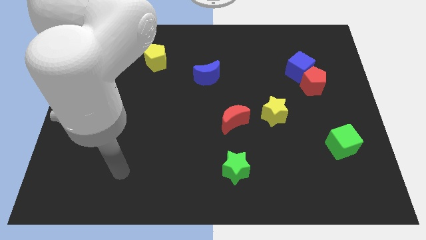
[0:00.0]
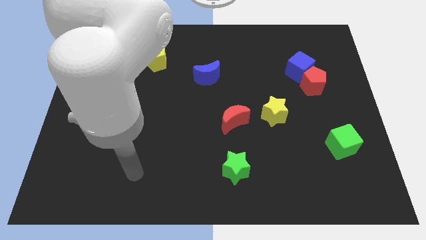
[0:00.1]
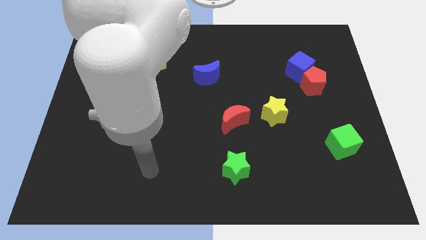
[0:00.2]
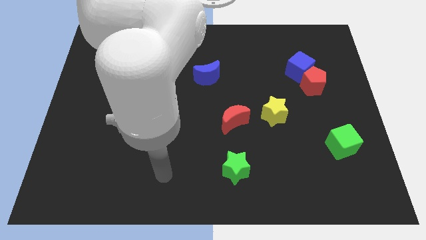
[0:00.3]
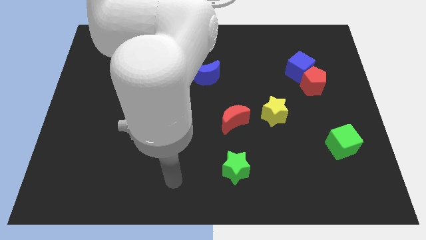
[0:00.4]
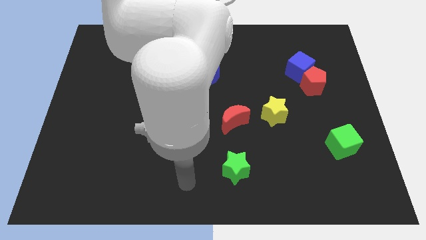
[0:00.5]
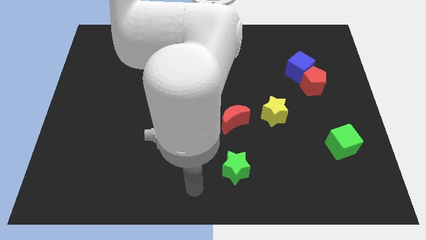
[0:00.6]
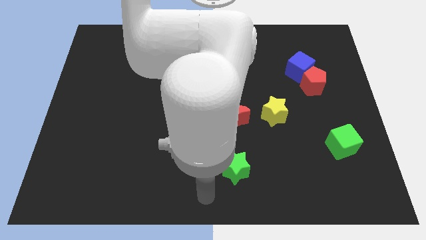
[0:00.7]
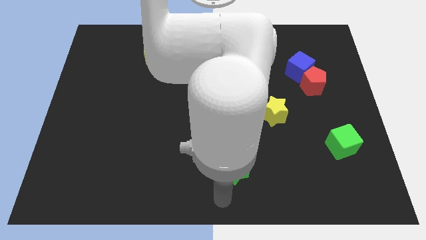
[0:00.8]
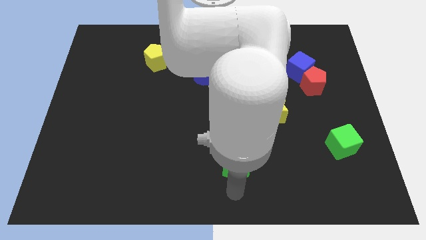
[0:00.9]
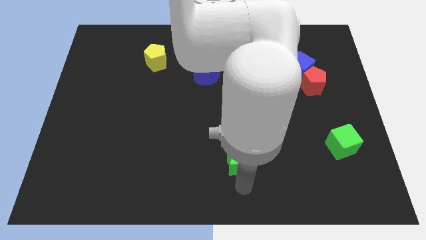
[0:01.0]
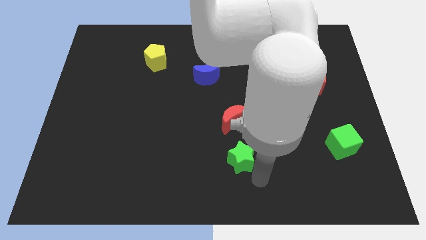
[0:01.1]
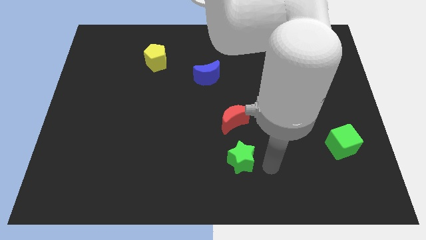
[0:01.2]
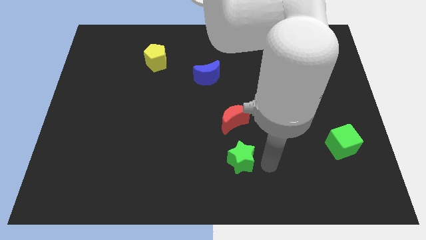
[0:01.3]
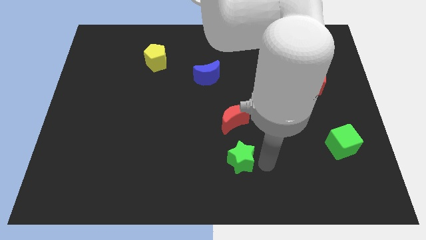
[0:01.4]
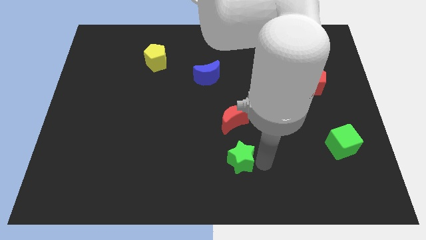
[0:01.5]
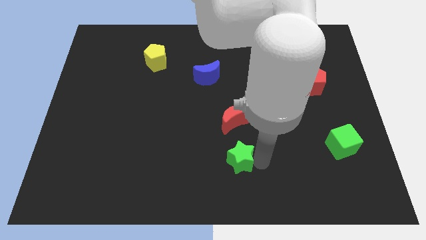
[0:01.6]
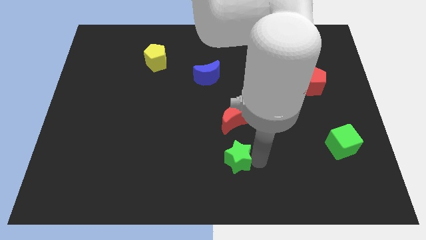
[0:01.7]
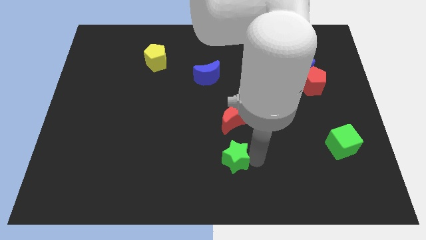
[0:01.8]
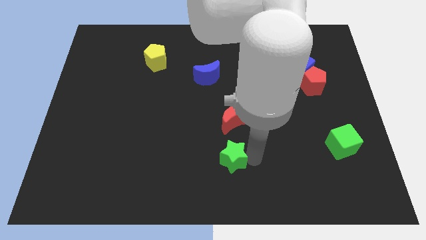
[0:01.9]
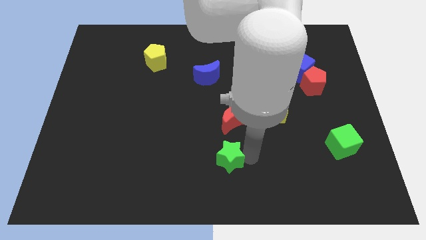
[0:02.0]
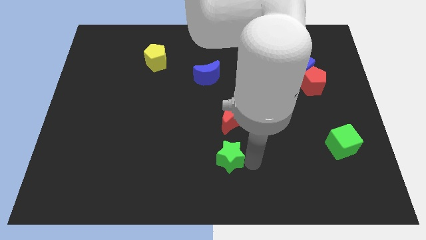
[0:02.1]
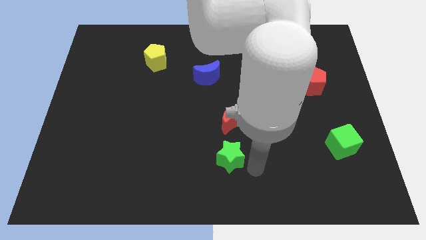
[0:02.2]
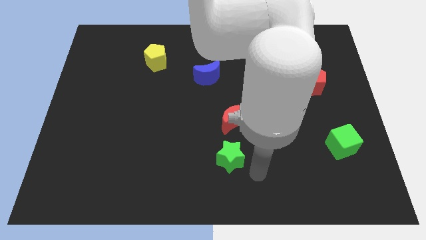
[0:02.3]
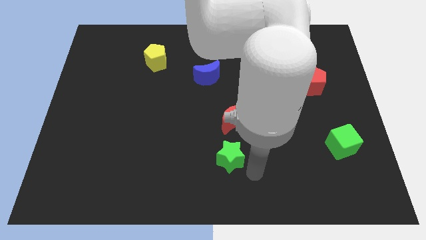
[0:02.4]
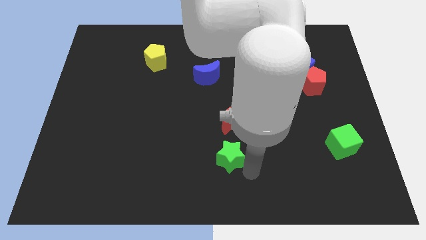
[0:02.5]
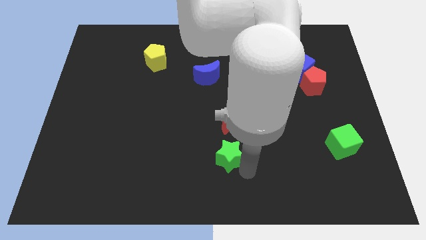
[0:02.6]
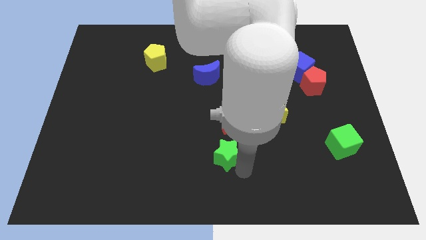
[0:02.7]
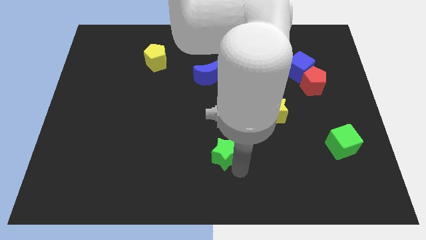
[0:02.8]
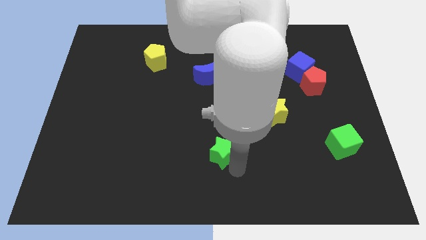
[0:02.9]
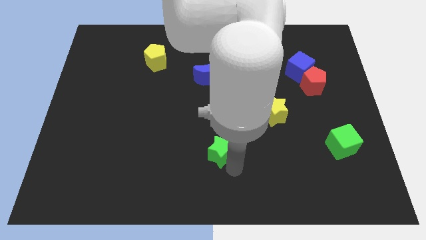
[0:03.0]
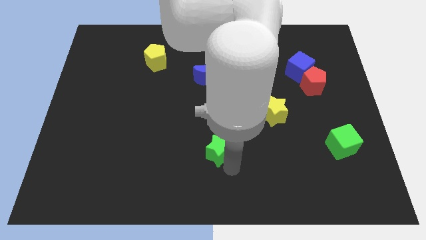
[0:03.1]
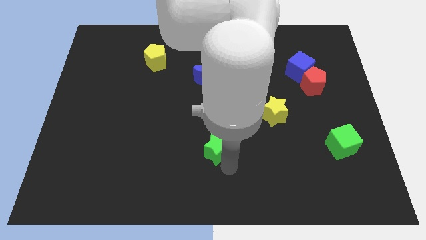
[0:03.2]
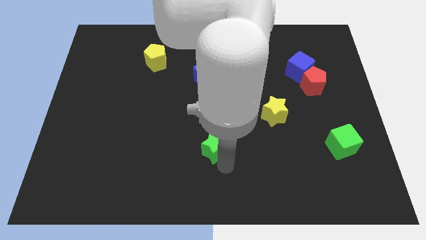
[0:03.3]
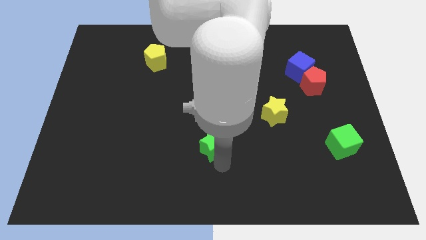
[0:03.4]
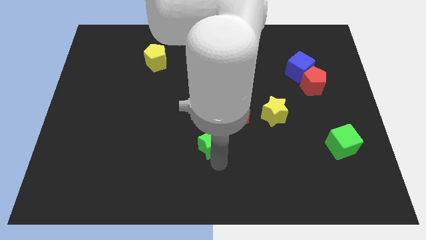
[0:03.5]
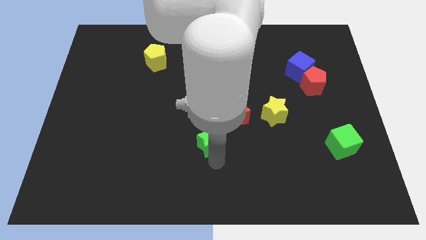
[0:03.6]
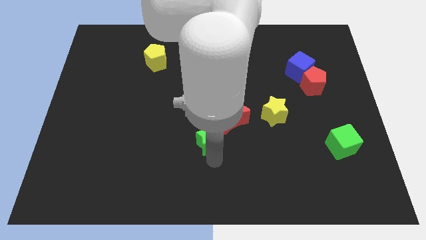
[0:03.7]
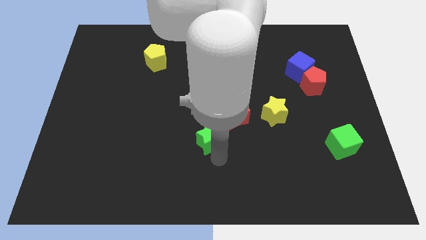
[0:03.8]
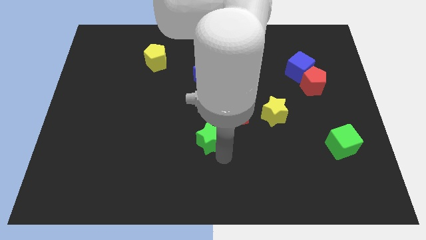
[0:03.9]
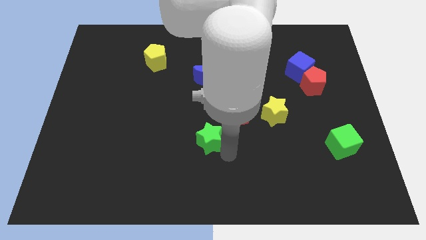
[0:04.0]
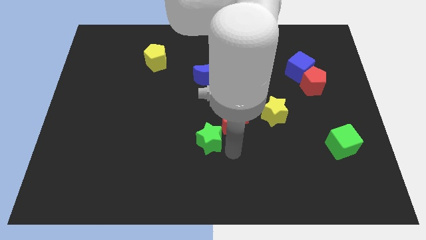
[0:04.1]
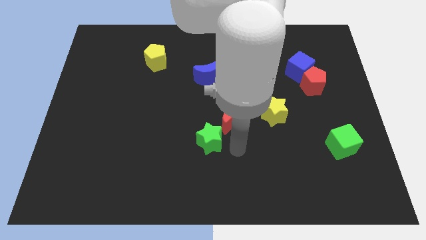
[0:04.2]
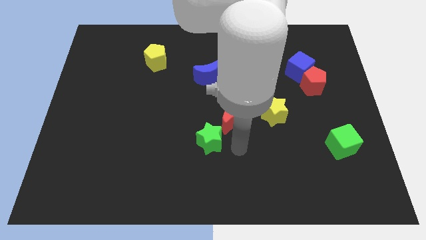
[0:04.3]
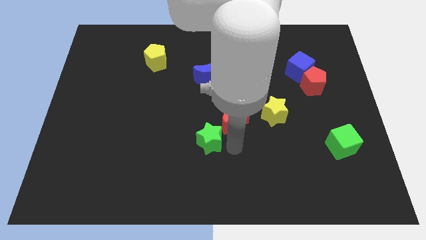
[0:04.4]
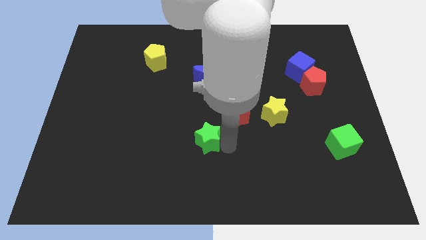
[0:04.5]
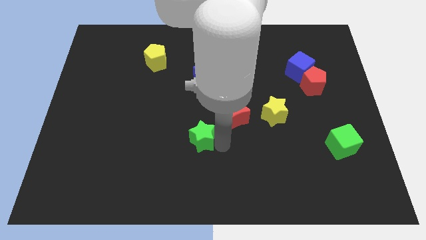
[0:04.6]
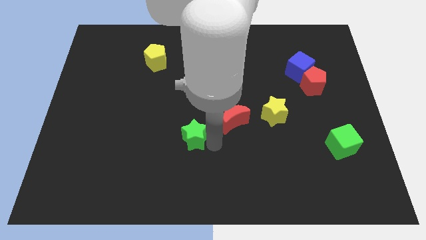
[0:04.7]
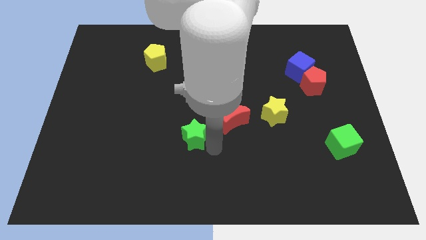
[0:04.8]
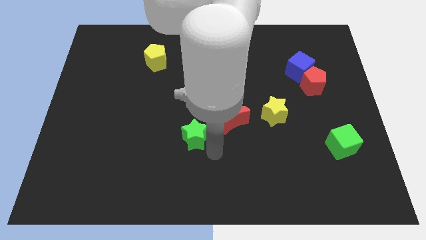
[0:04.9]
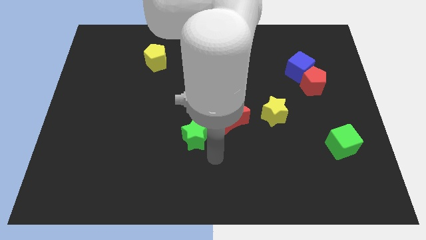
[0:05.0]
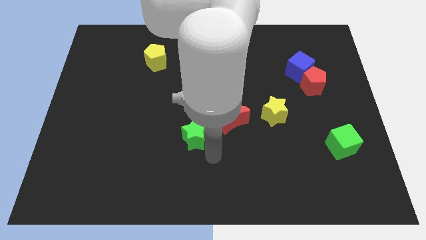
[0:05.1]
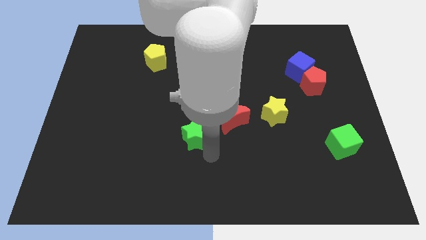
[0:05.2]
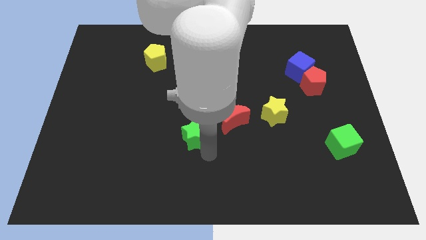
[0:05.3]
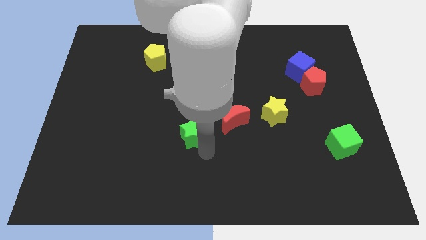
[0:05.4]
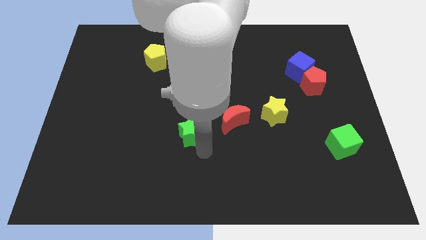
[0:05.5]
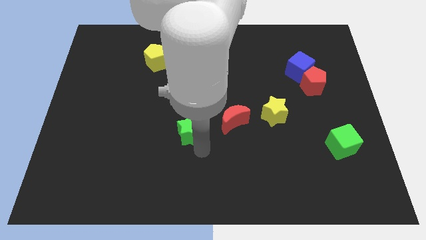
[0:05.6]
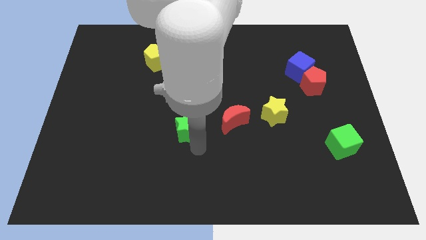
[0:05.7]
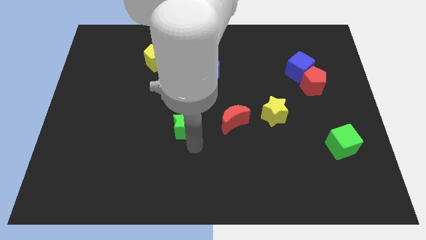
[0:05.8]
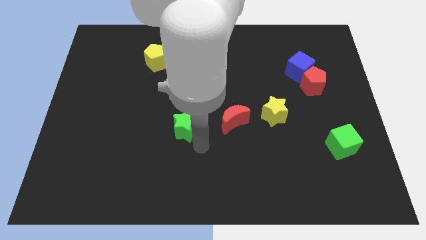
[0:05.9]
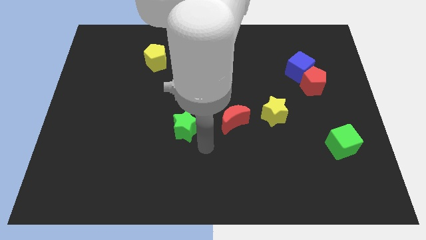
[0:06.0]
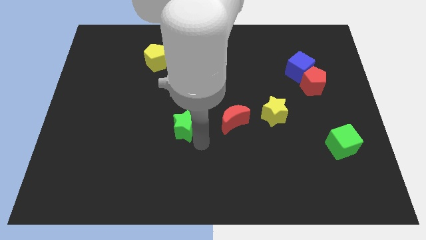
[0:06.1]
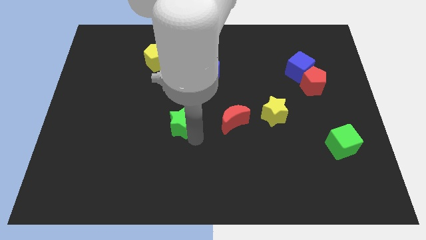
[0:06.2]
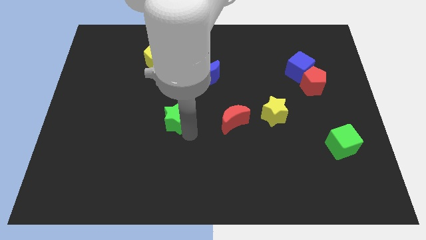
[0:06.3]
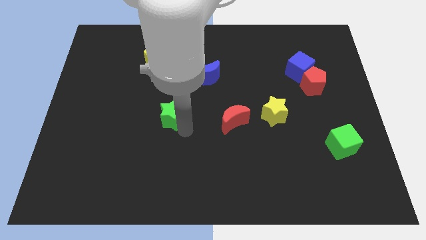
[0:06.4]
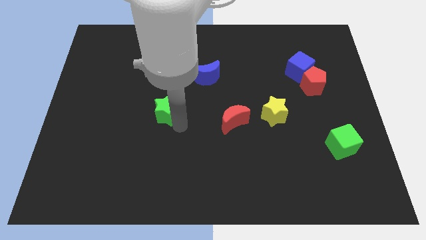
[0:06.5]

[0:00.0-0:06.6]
slide the green star up and then to the left

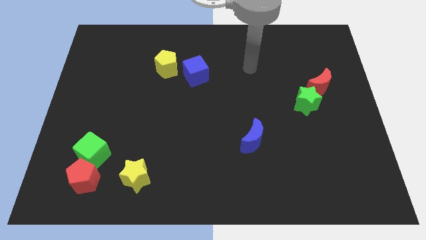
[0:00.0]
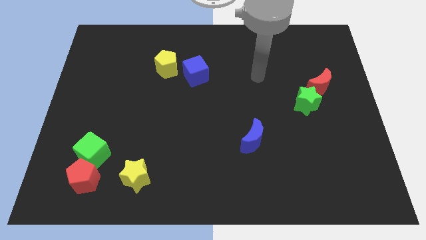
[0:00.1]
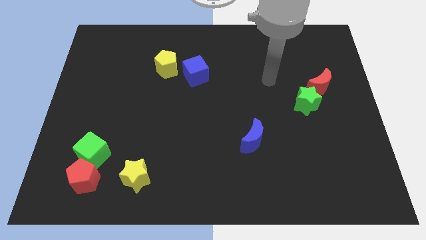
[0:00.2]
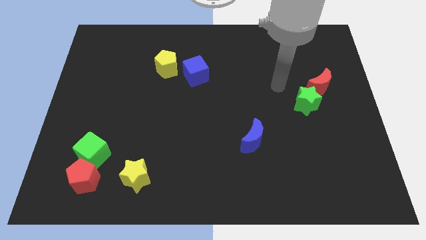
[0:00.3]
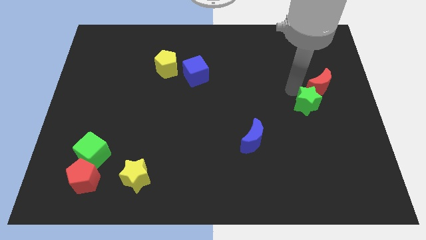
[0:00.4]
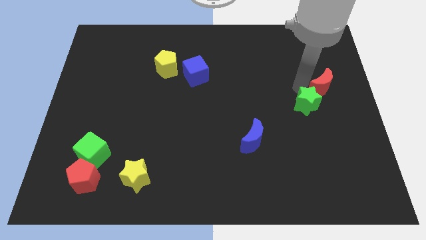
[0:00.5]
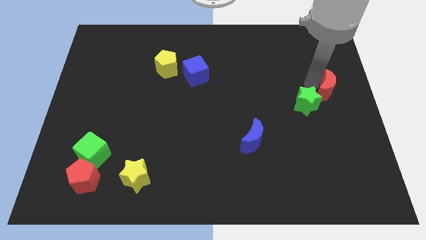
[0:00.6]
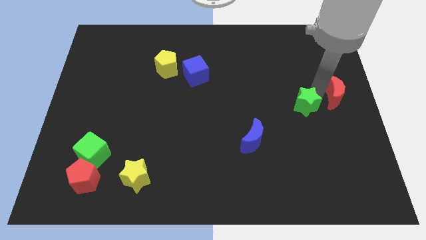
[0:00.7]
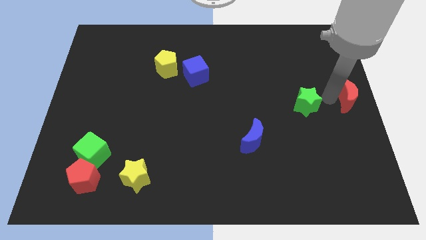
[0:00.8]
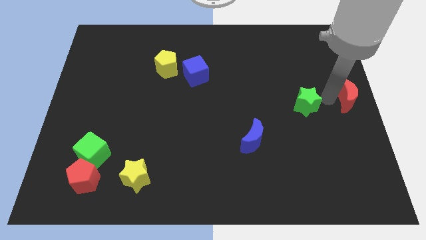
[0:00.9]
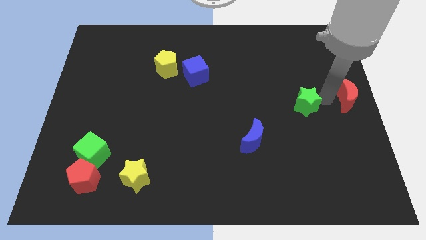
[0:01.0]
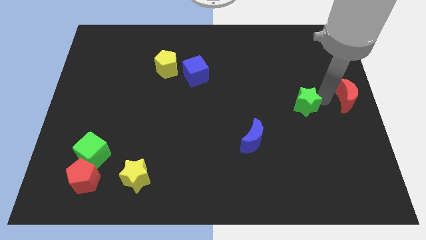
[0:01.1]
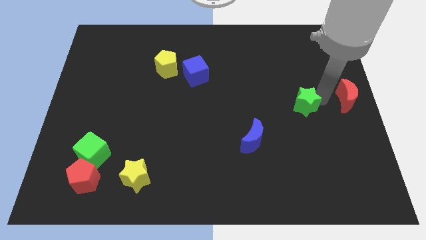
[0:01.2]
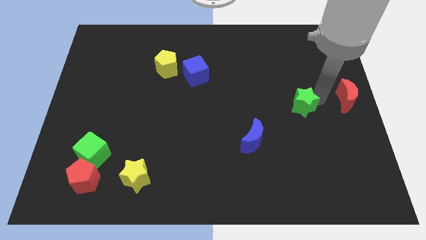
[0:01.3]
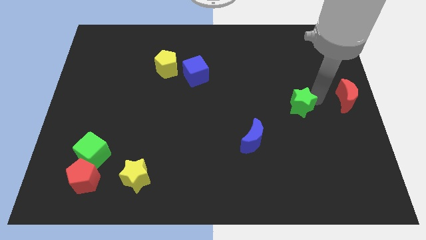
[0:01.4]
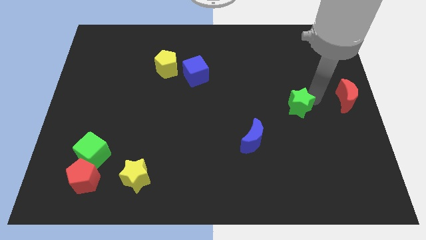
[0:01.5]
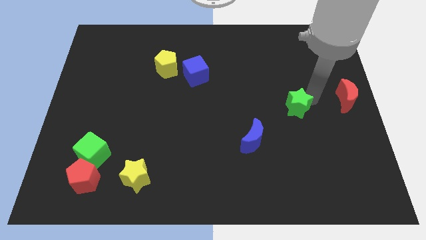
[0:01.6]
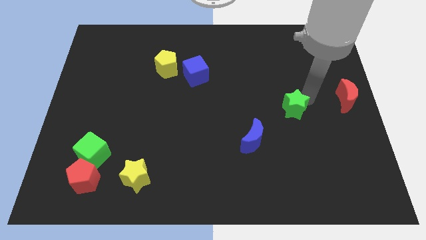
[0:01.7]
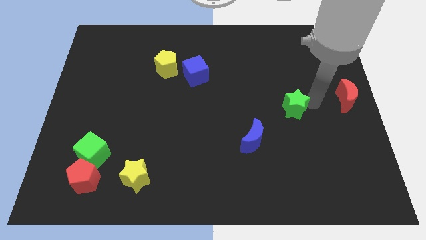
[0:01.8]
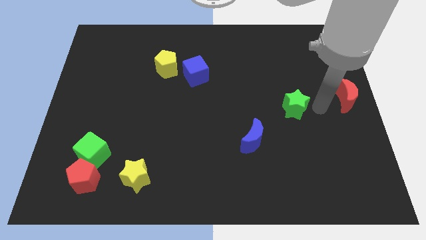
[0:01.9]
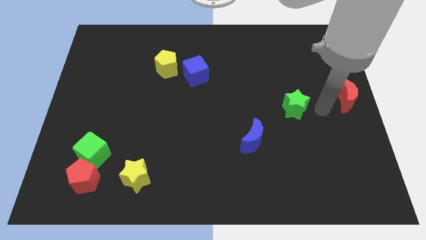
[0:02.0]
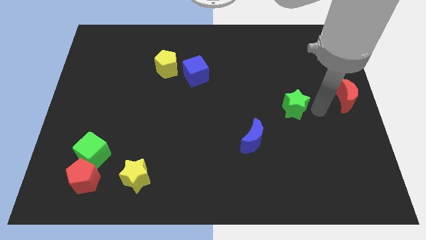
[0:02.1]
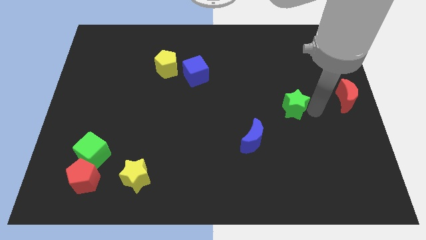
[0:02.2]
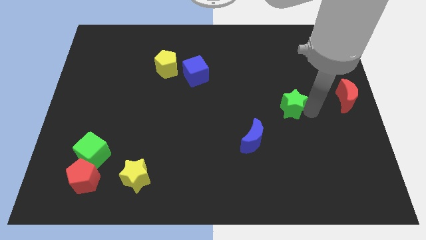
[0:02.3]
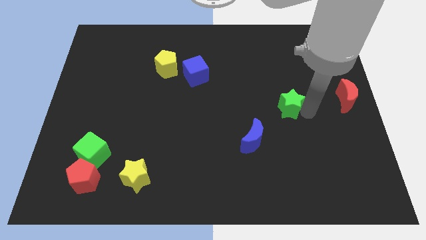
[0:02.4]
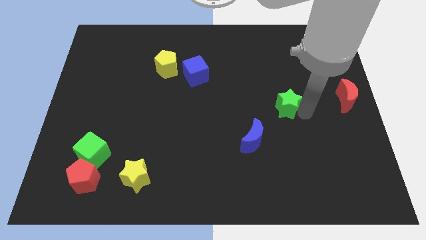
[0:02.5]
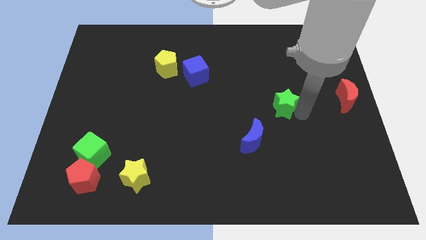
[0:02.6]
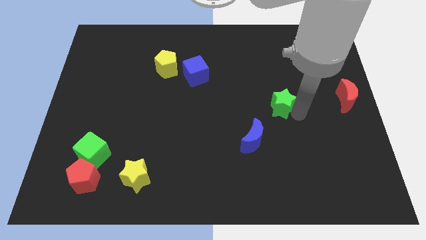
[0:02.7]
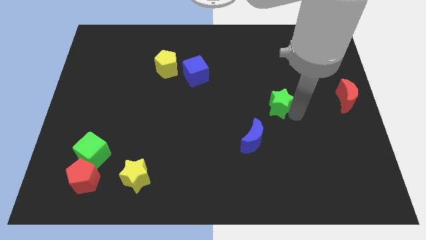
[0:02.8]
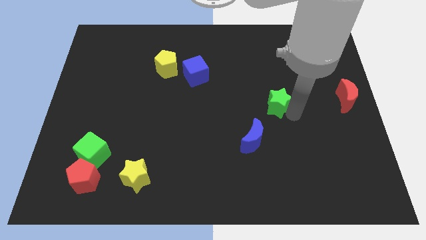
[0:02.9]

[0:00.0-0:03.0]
move the green star to the left slightly
